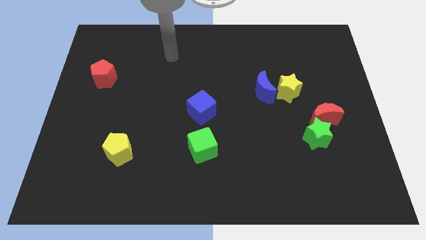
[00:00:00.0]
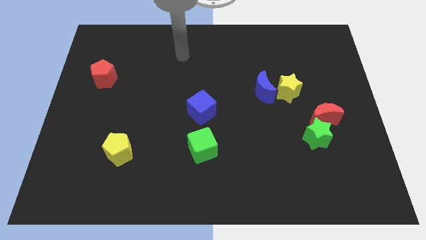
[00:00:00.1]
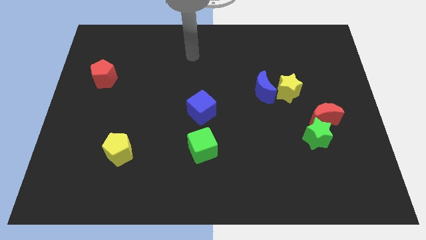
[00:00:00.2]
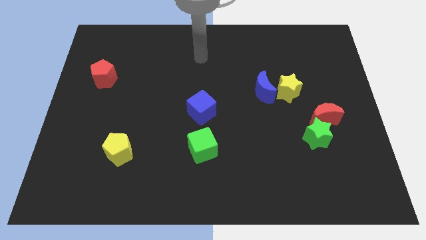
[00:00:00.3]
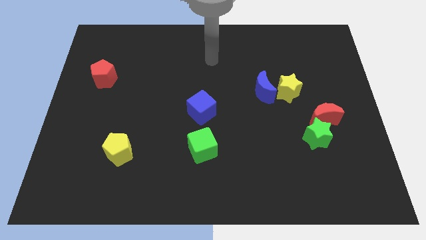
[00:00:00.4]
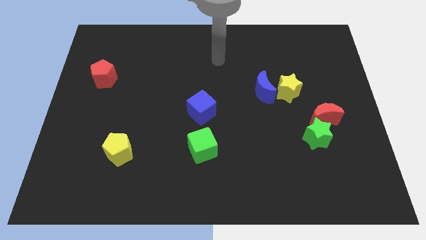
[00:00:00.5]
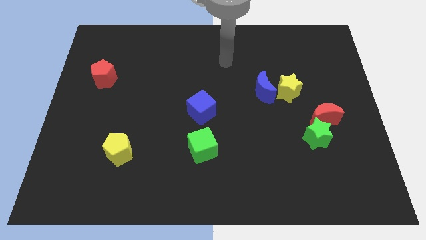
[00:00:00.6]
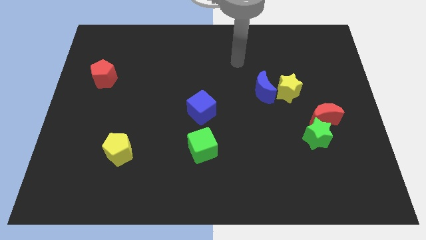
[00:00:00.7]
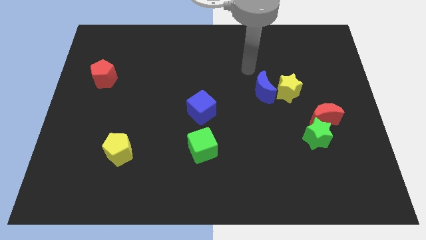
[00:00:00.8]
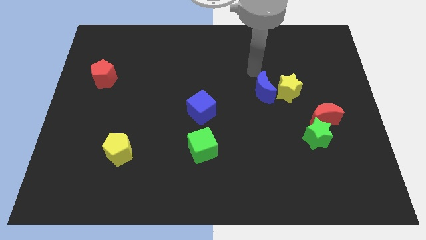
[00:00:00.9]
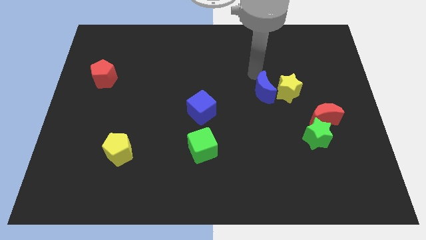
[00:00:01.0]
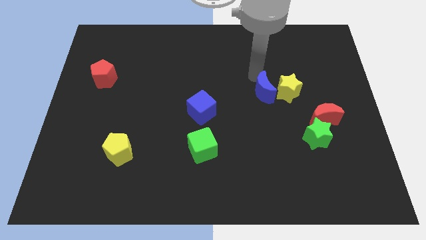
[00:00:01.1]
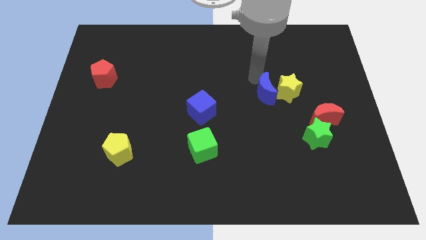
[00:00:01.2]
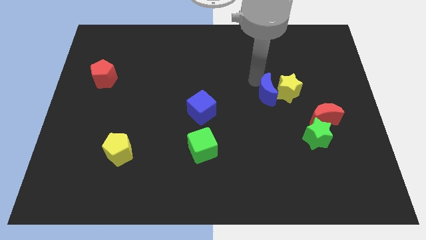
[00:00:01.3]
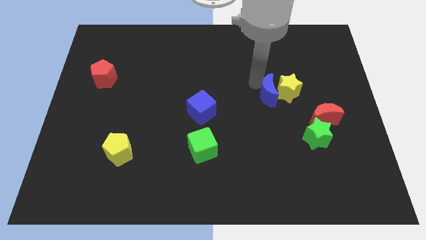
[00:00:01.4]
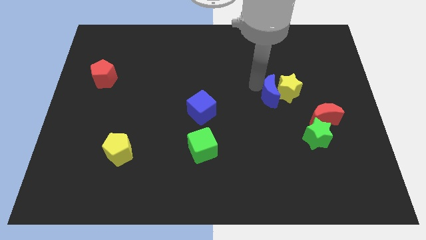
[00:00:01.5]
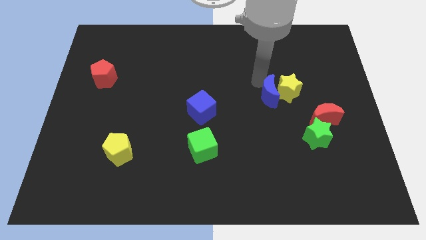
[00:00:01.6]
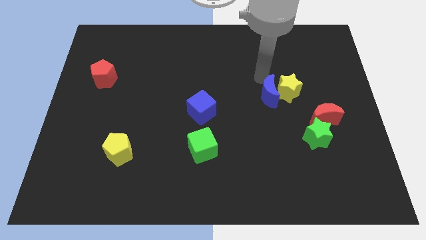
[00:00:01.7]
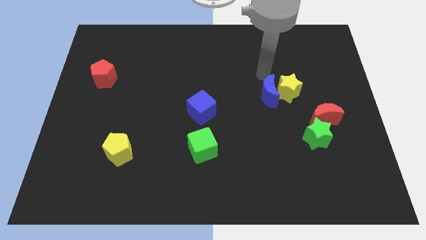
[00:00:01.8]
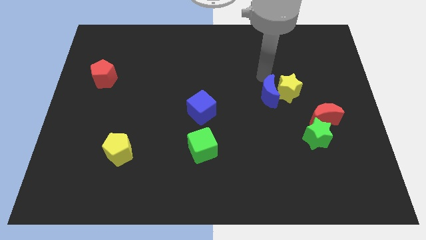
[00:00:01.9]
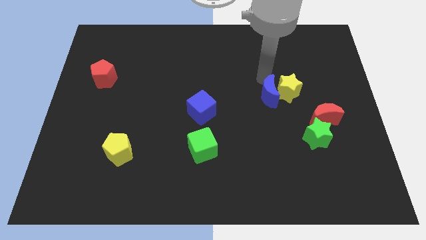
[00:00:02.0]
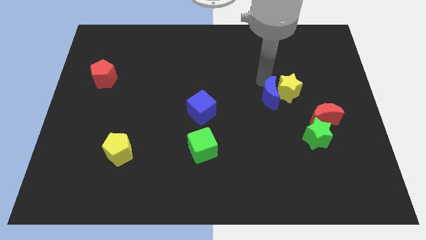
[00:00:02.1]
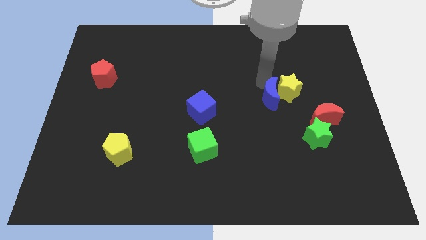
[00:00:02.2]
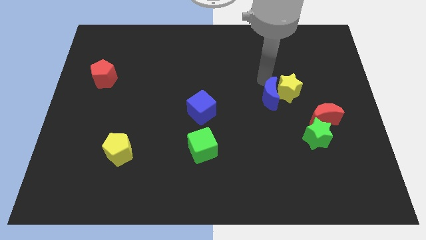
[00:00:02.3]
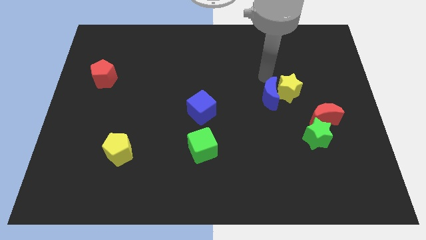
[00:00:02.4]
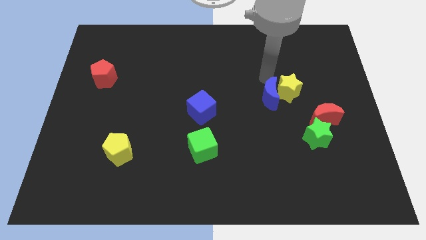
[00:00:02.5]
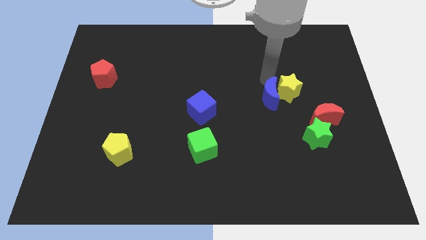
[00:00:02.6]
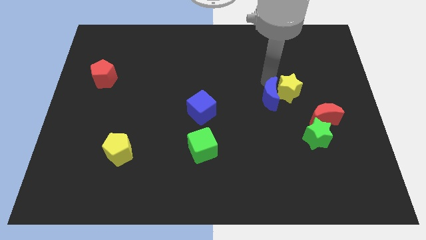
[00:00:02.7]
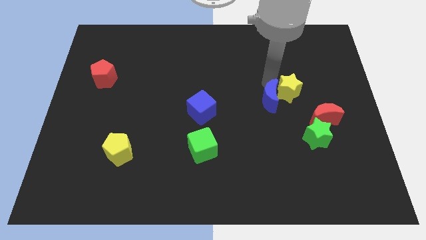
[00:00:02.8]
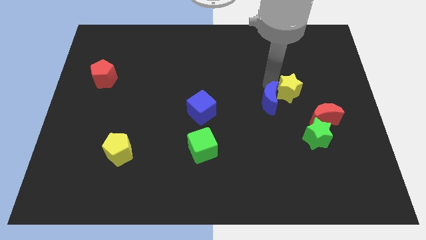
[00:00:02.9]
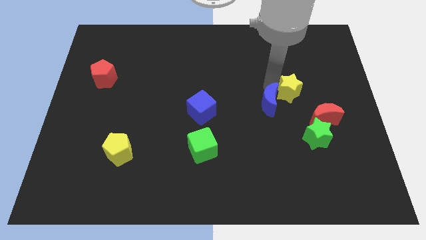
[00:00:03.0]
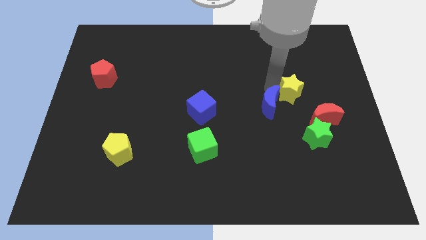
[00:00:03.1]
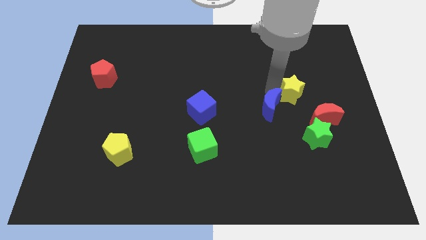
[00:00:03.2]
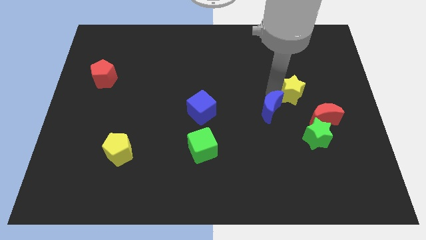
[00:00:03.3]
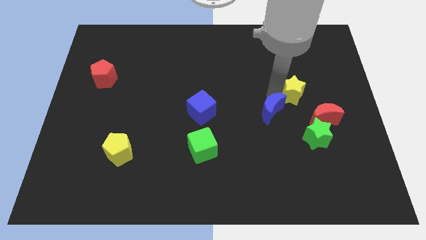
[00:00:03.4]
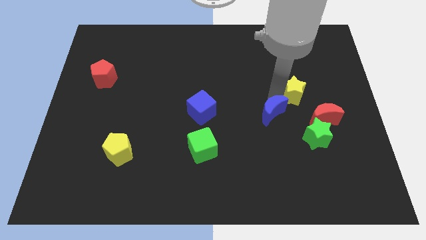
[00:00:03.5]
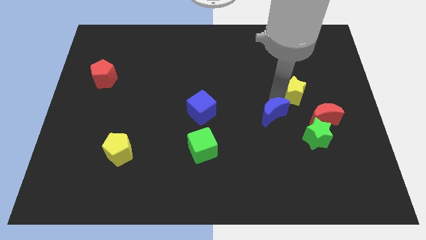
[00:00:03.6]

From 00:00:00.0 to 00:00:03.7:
slide the blue moon a bit down

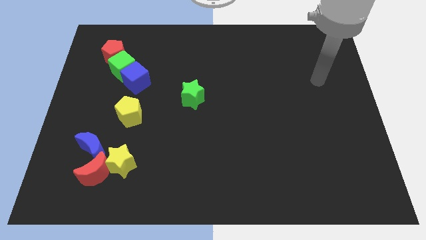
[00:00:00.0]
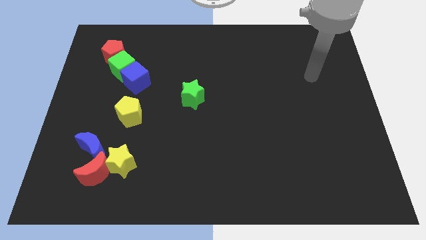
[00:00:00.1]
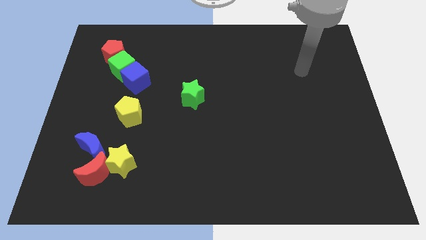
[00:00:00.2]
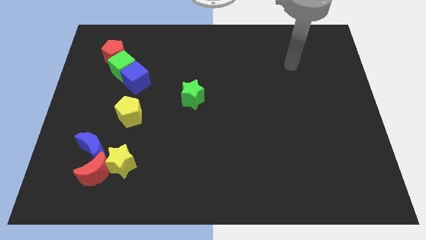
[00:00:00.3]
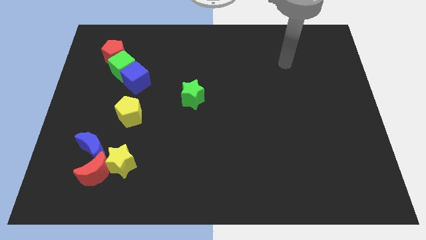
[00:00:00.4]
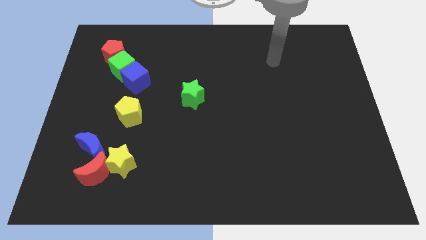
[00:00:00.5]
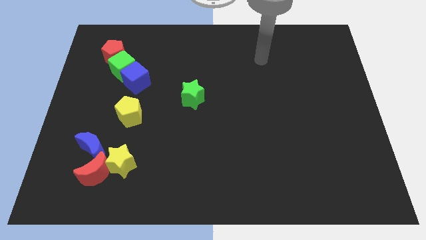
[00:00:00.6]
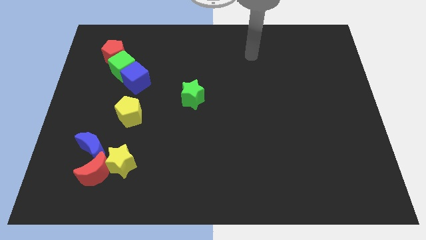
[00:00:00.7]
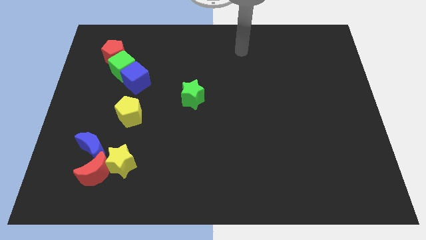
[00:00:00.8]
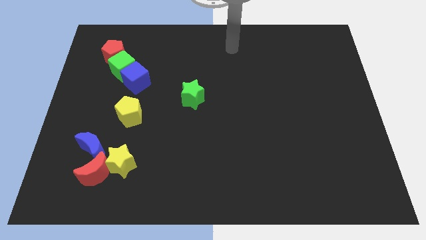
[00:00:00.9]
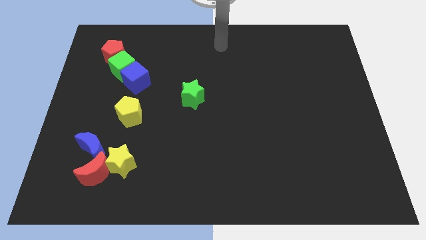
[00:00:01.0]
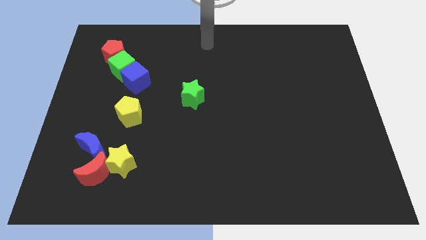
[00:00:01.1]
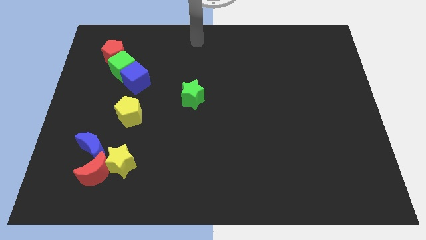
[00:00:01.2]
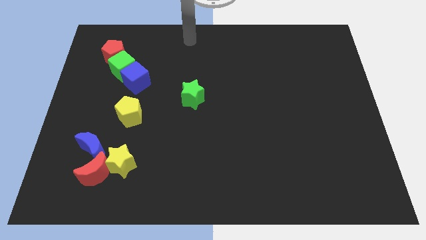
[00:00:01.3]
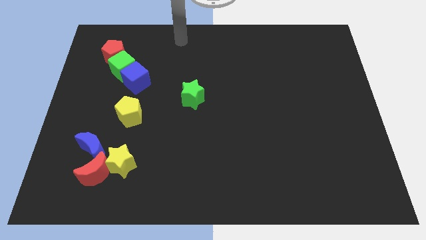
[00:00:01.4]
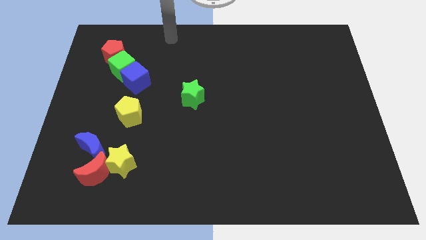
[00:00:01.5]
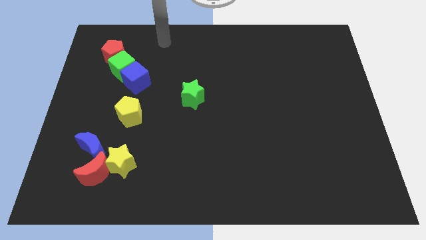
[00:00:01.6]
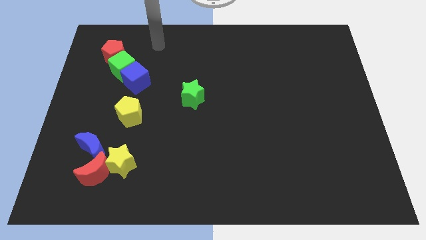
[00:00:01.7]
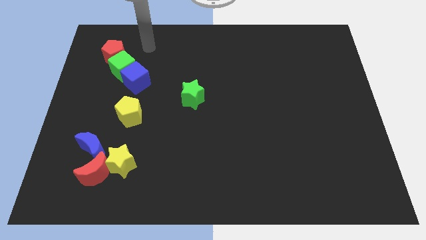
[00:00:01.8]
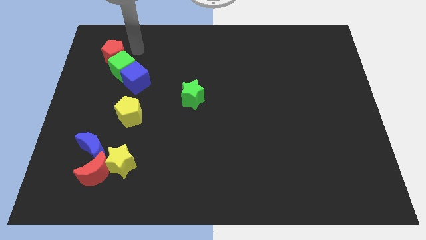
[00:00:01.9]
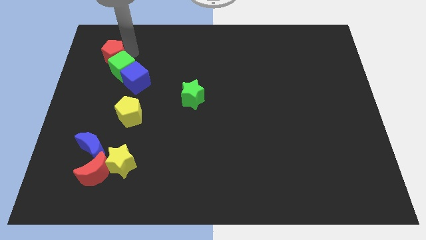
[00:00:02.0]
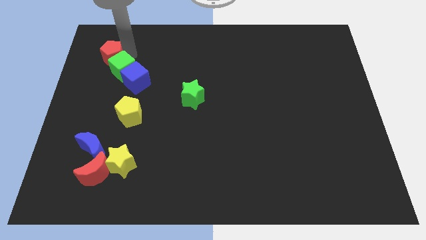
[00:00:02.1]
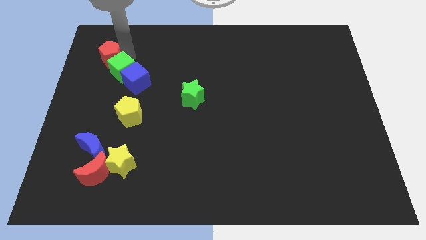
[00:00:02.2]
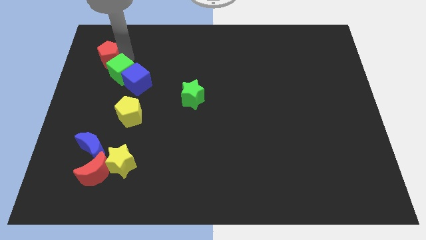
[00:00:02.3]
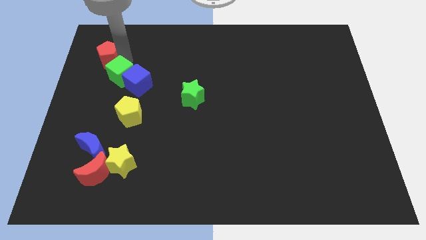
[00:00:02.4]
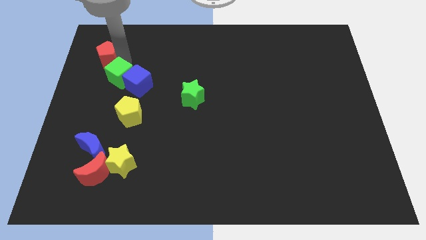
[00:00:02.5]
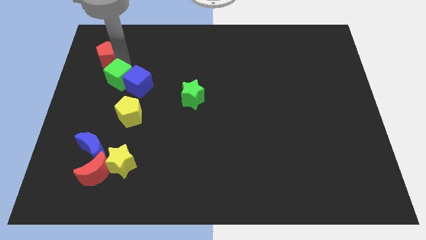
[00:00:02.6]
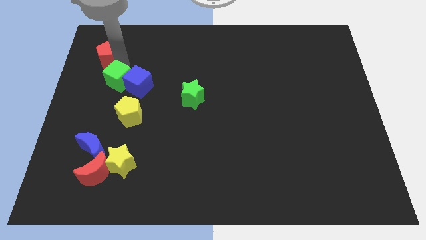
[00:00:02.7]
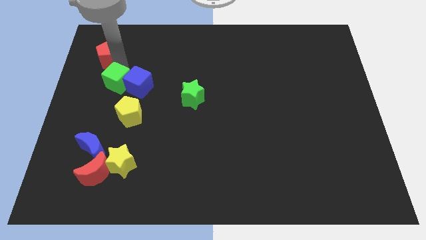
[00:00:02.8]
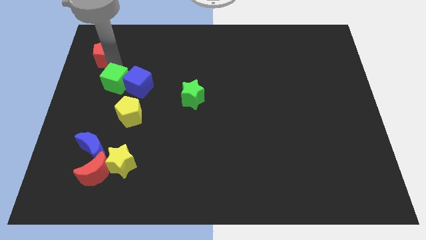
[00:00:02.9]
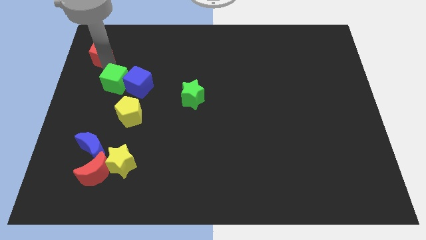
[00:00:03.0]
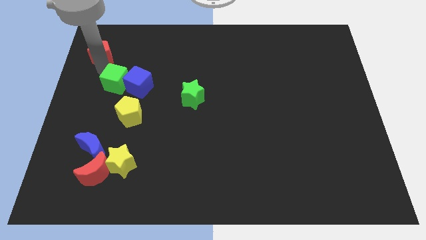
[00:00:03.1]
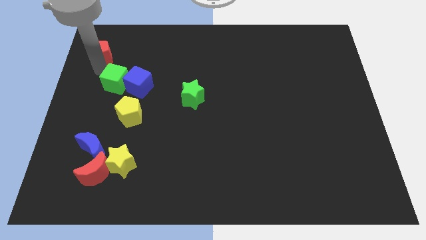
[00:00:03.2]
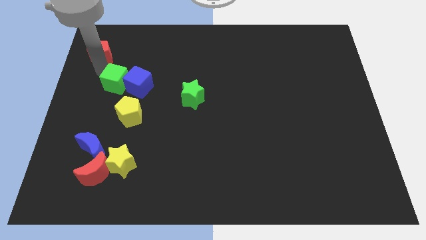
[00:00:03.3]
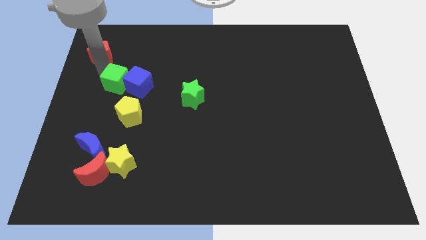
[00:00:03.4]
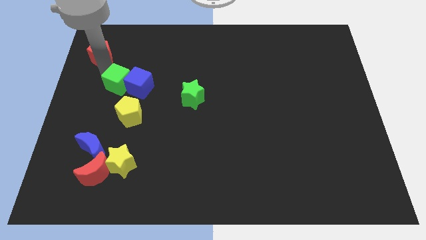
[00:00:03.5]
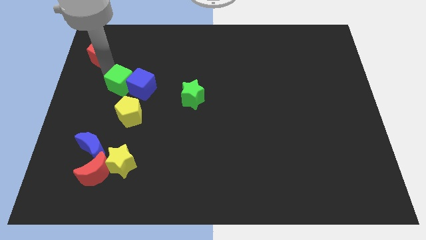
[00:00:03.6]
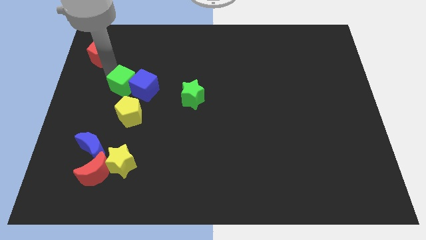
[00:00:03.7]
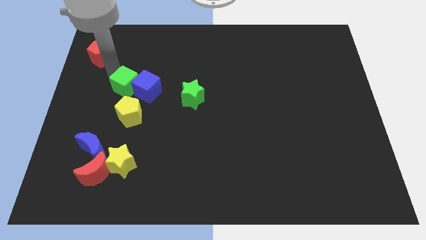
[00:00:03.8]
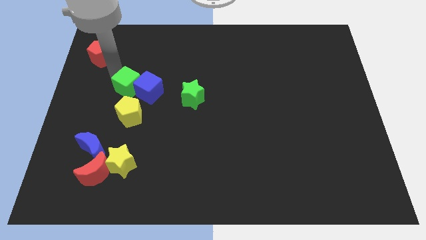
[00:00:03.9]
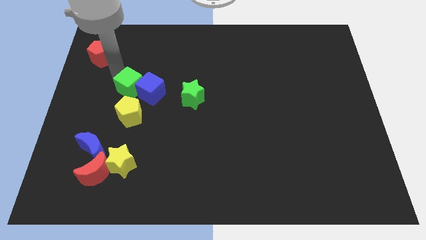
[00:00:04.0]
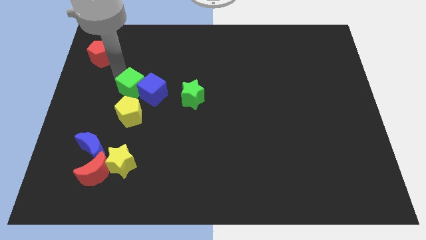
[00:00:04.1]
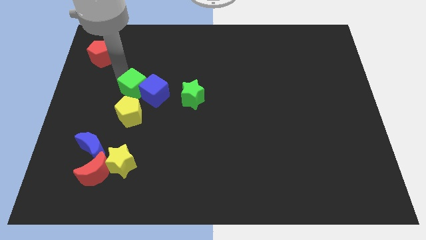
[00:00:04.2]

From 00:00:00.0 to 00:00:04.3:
move the green cube a little diagonally down and to the right

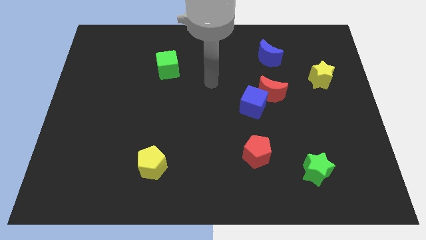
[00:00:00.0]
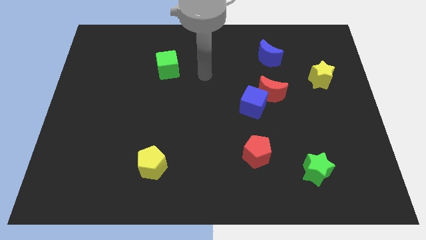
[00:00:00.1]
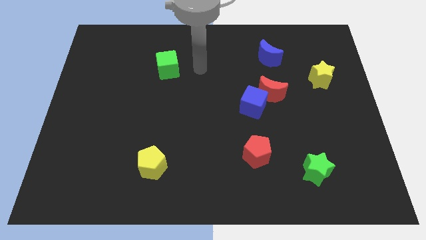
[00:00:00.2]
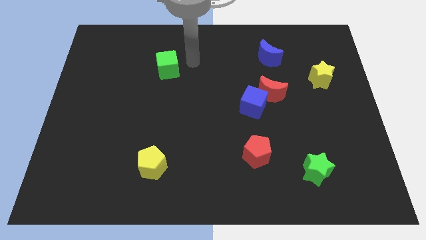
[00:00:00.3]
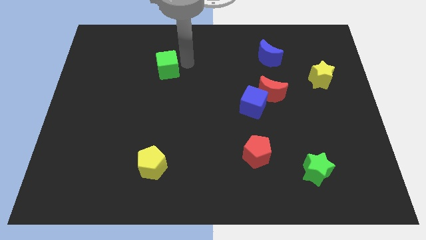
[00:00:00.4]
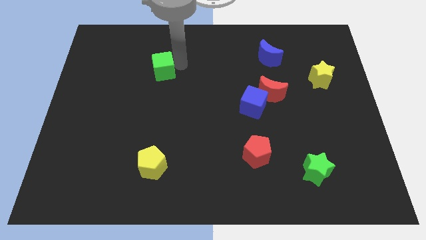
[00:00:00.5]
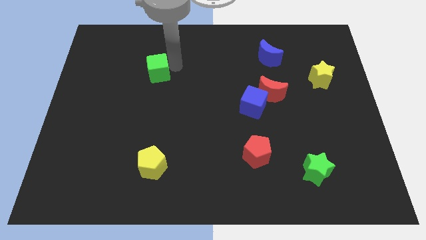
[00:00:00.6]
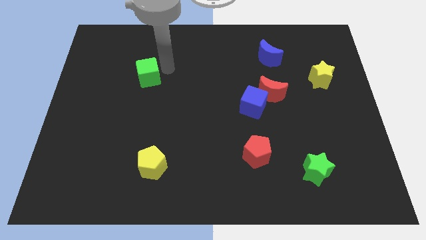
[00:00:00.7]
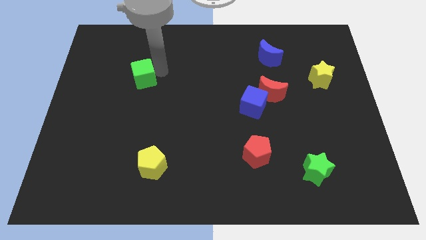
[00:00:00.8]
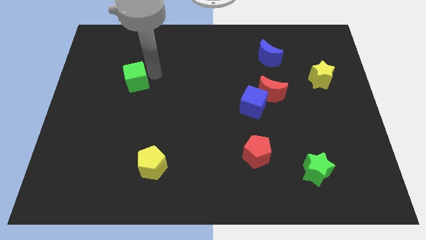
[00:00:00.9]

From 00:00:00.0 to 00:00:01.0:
slightly slide the green cube downwards and to the left
